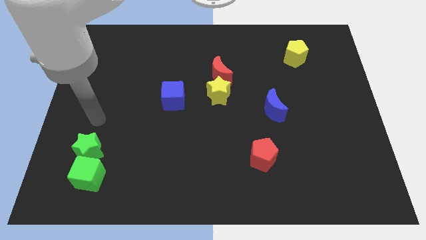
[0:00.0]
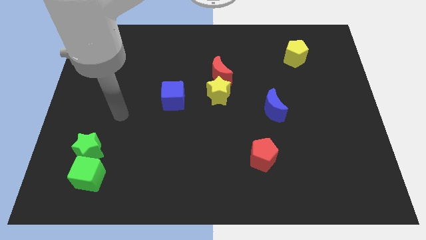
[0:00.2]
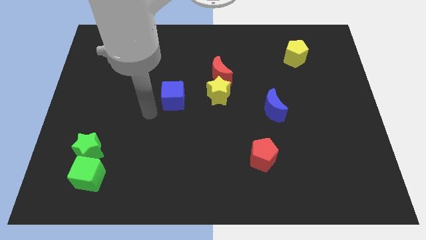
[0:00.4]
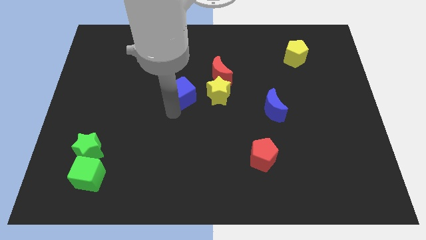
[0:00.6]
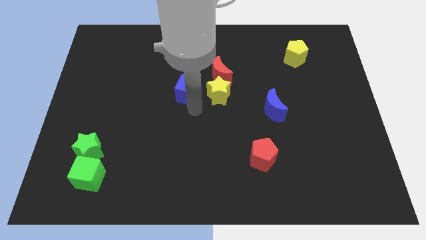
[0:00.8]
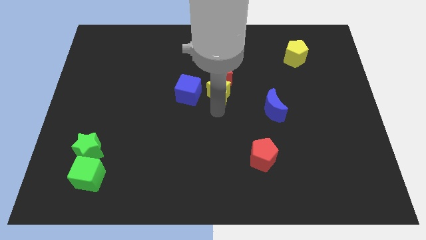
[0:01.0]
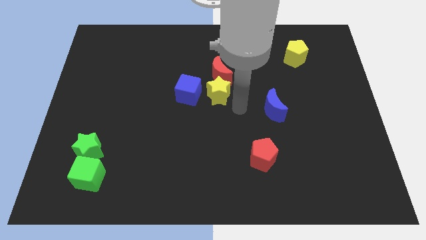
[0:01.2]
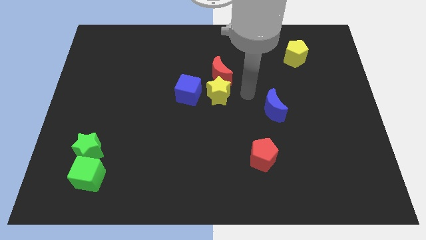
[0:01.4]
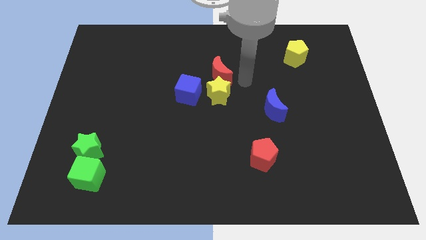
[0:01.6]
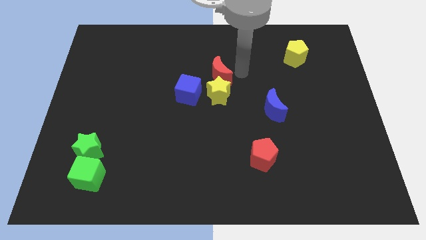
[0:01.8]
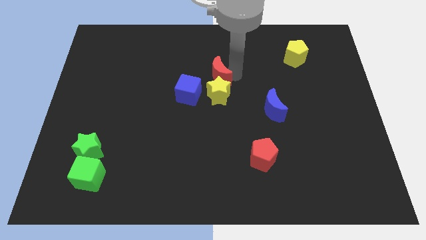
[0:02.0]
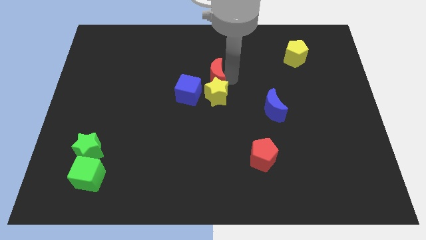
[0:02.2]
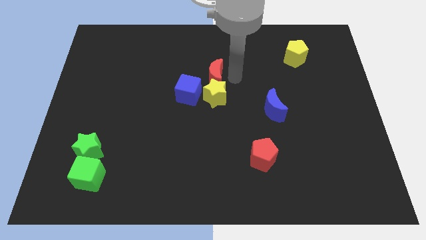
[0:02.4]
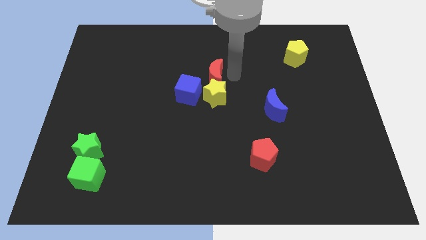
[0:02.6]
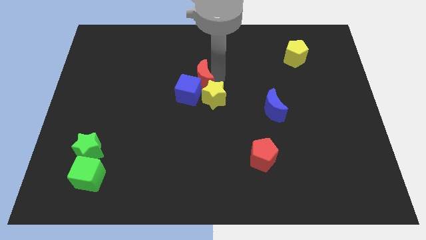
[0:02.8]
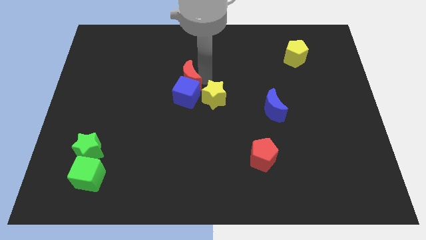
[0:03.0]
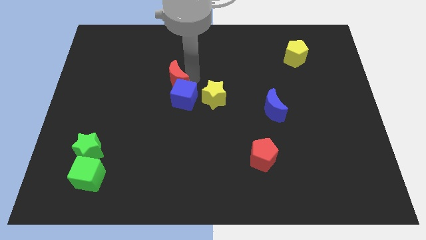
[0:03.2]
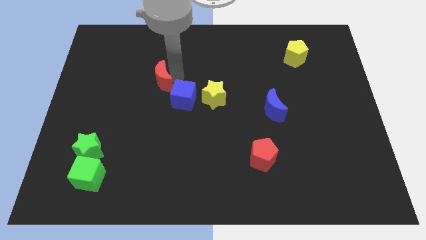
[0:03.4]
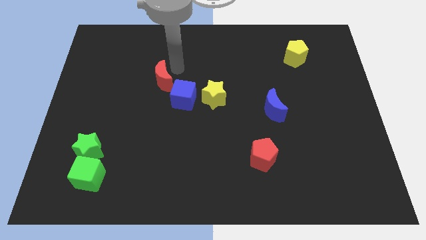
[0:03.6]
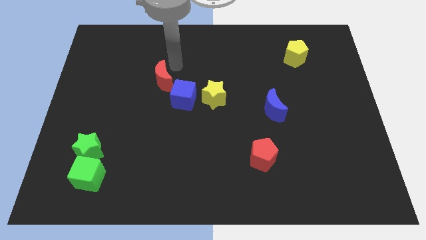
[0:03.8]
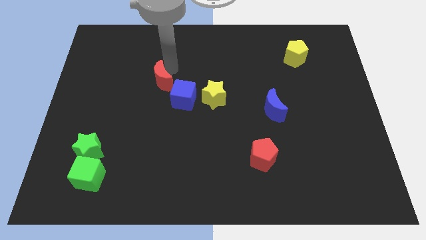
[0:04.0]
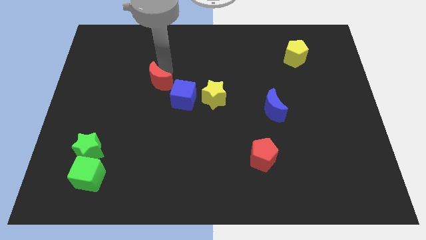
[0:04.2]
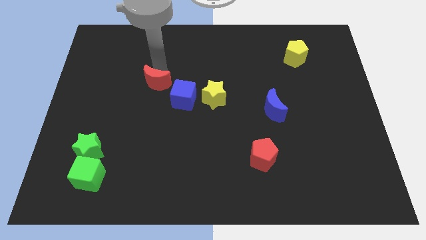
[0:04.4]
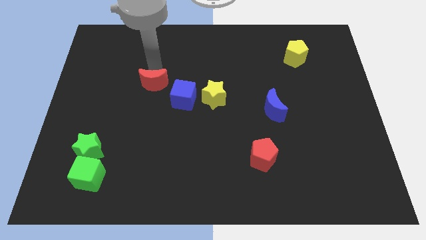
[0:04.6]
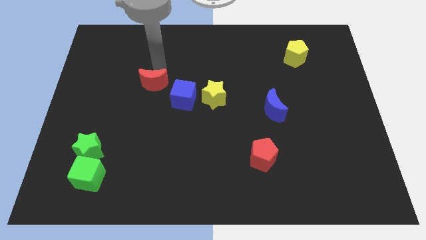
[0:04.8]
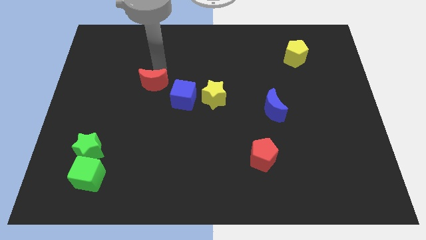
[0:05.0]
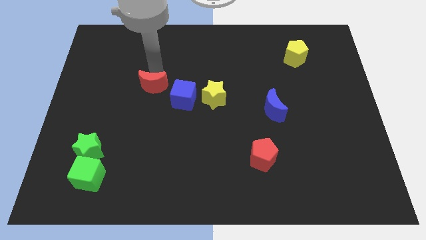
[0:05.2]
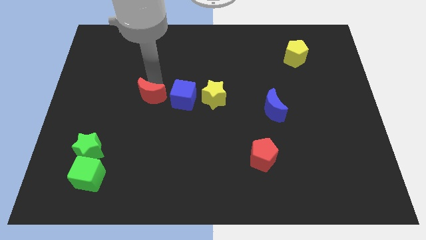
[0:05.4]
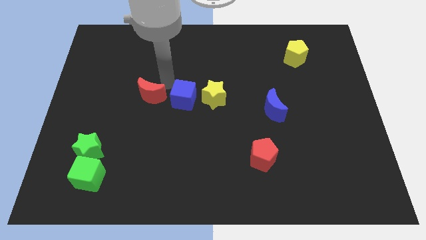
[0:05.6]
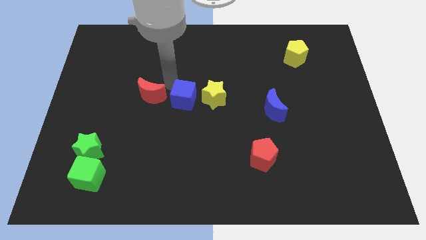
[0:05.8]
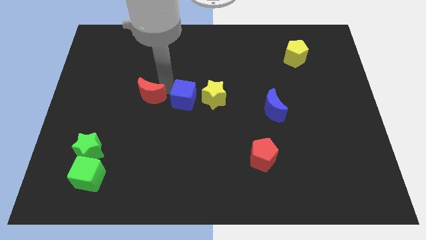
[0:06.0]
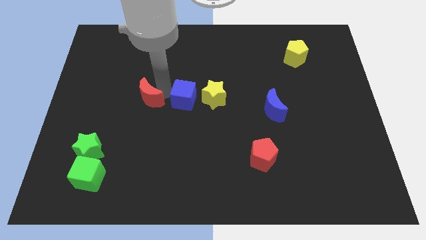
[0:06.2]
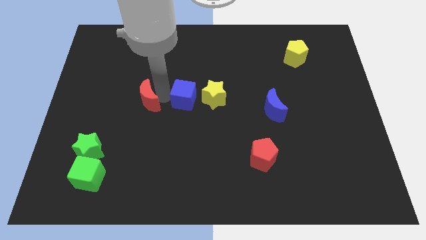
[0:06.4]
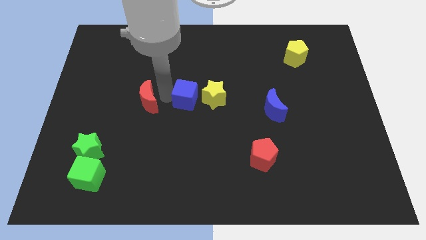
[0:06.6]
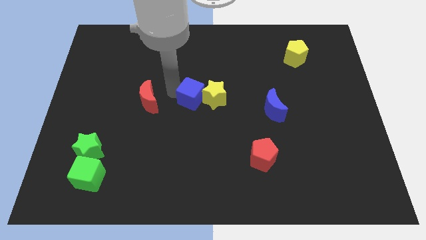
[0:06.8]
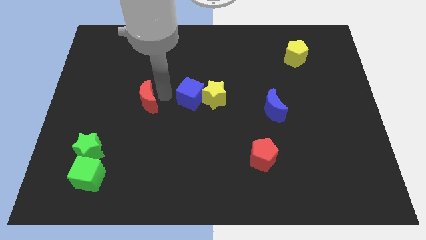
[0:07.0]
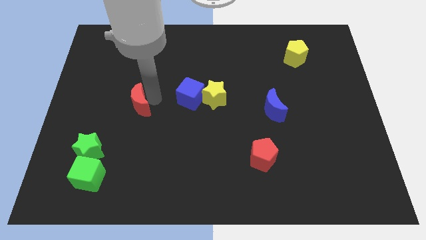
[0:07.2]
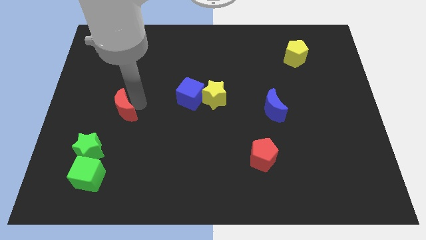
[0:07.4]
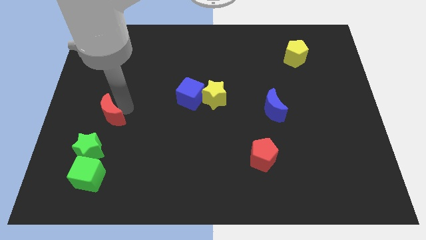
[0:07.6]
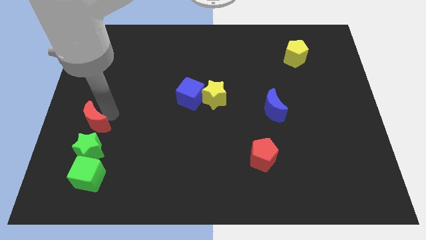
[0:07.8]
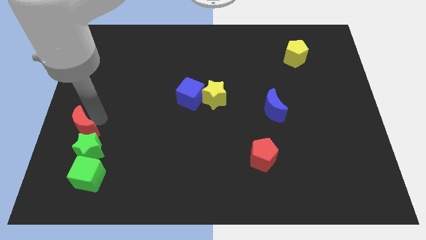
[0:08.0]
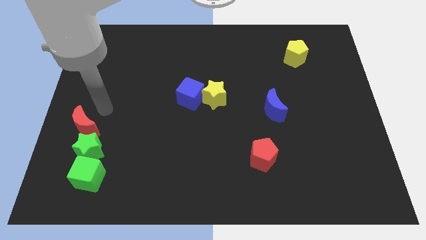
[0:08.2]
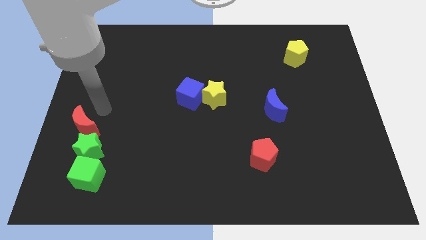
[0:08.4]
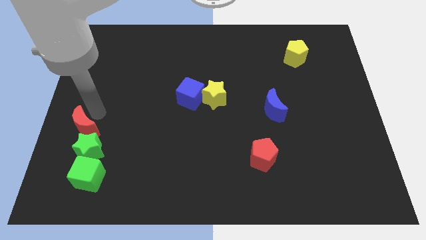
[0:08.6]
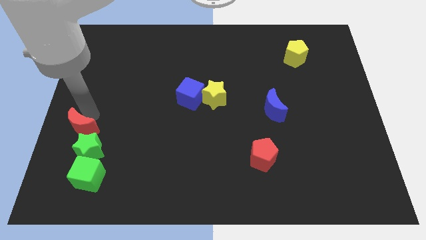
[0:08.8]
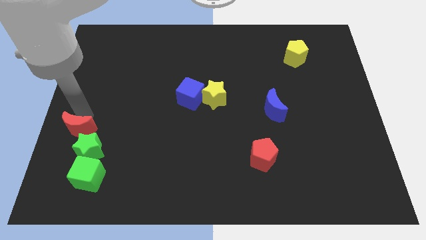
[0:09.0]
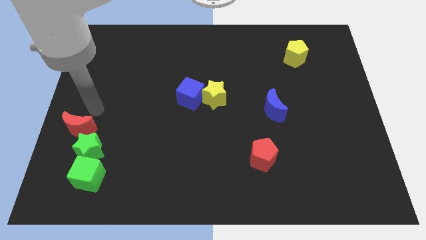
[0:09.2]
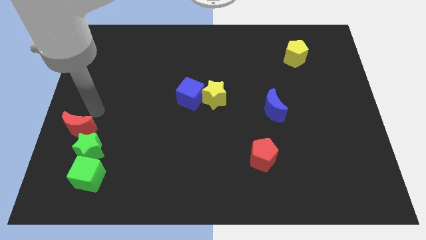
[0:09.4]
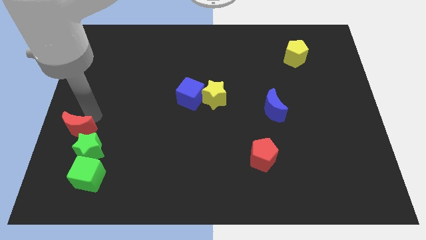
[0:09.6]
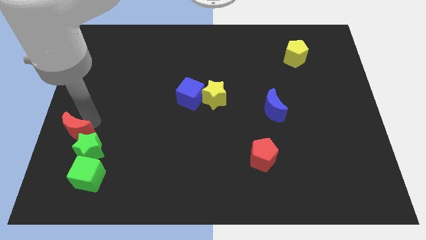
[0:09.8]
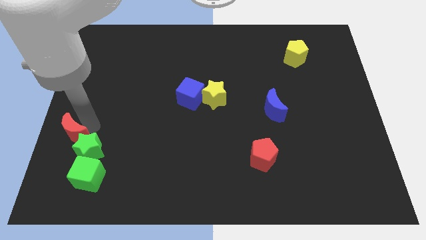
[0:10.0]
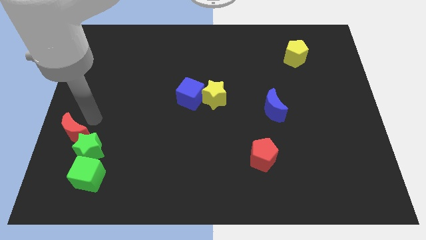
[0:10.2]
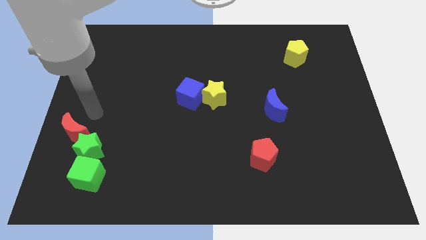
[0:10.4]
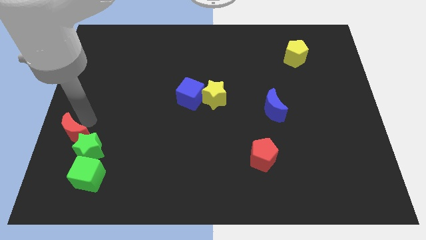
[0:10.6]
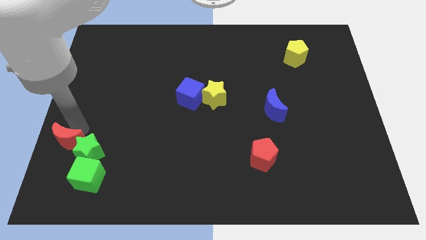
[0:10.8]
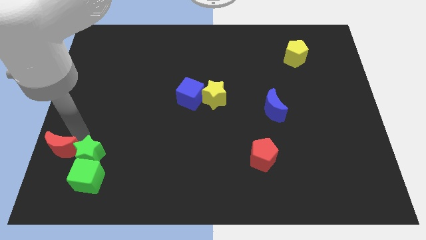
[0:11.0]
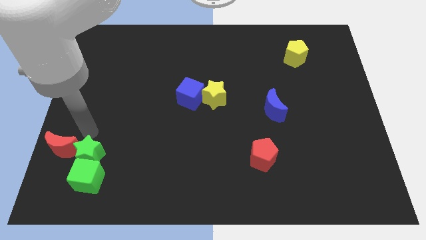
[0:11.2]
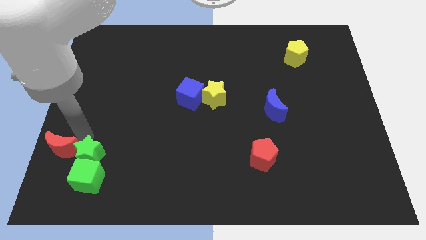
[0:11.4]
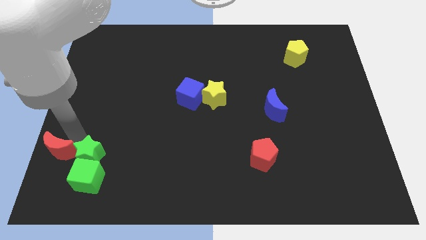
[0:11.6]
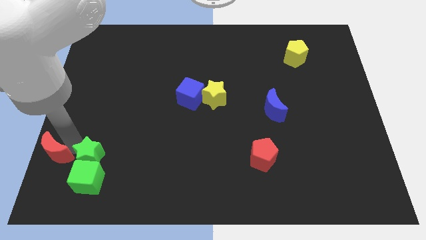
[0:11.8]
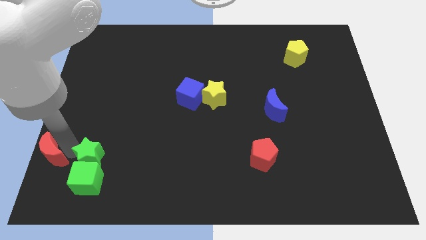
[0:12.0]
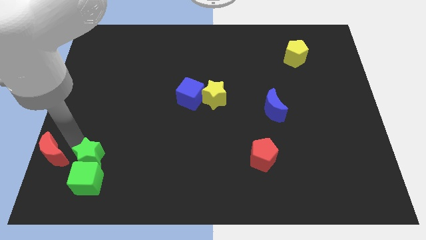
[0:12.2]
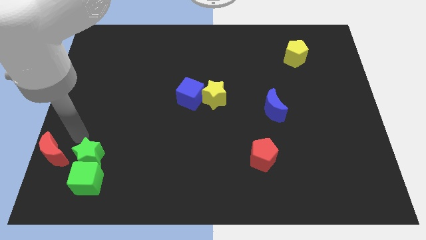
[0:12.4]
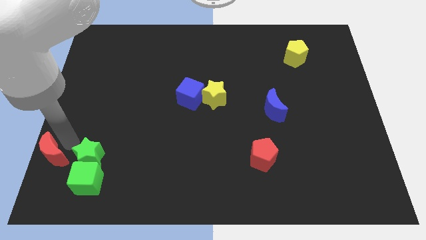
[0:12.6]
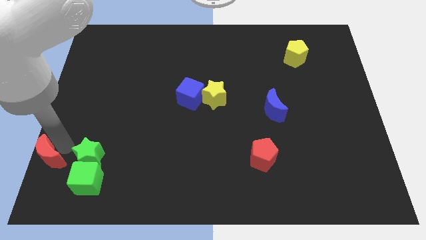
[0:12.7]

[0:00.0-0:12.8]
move the red moon to the bottom left of the board
